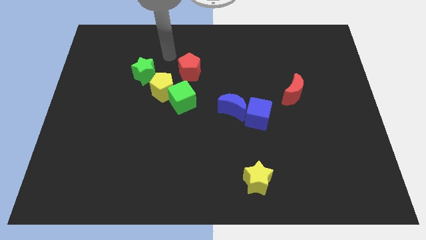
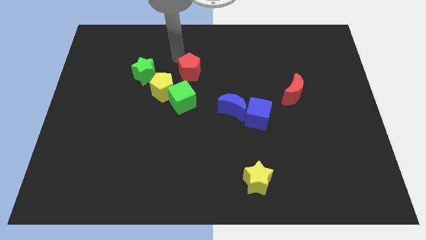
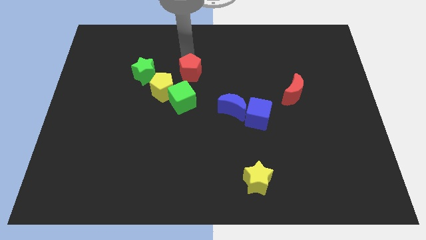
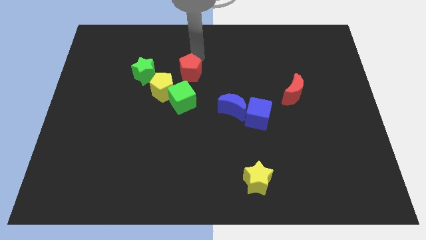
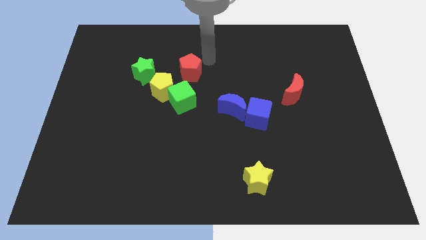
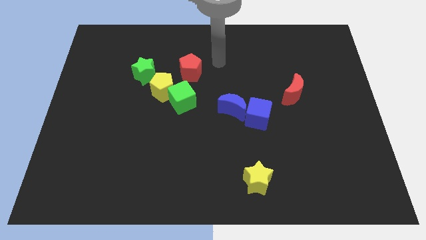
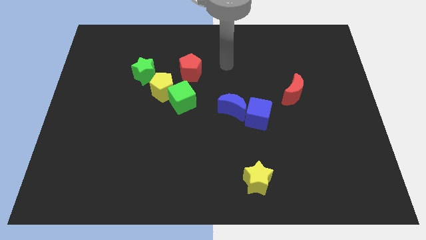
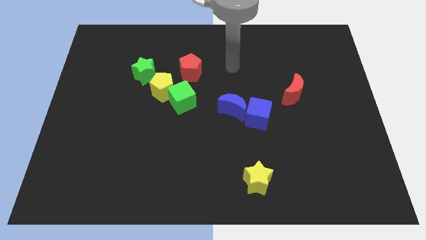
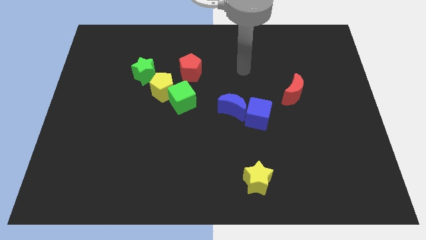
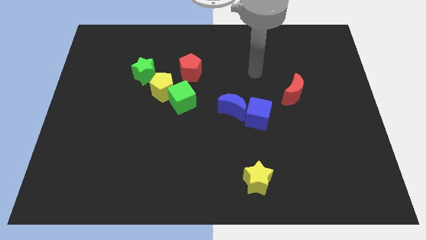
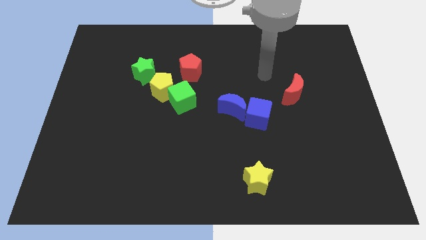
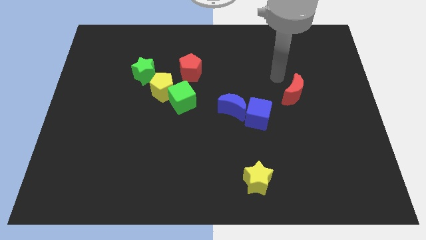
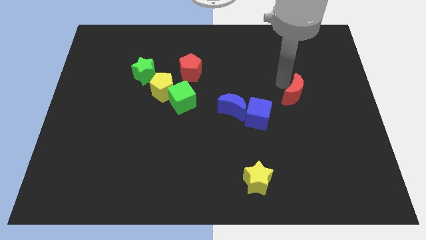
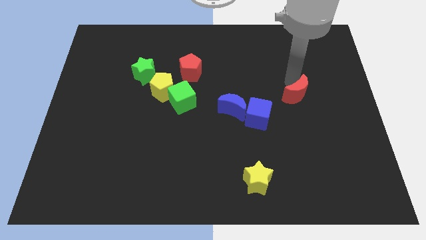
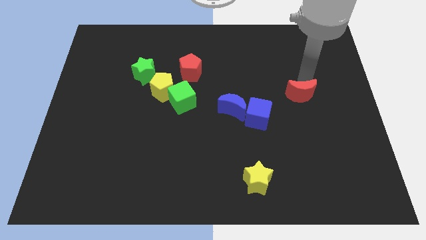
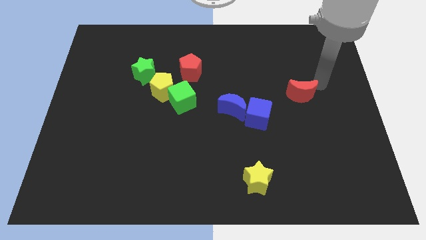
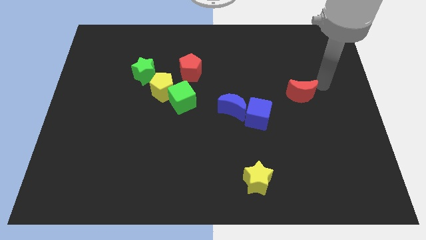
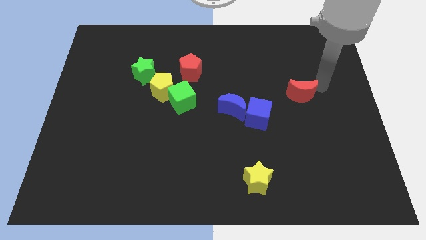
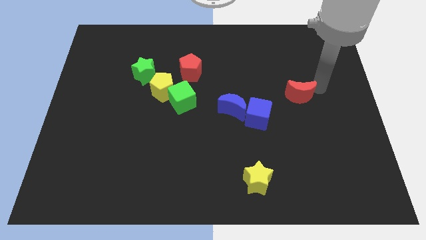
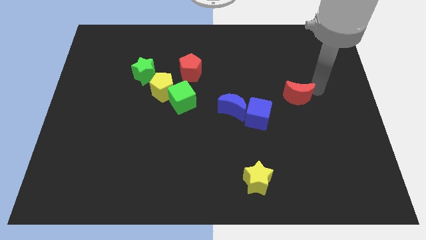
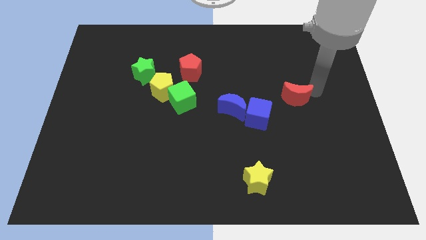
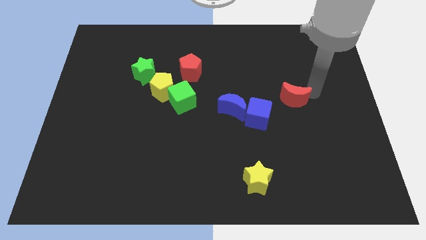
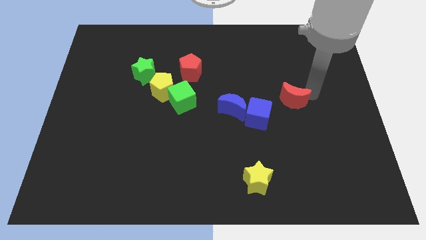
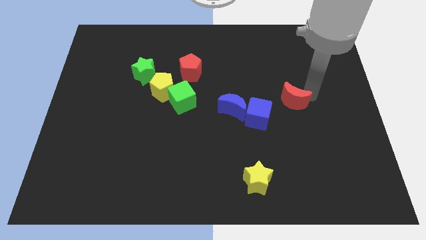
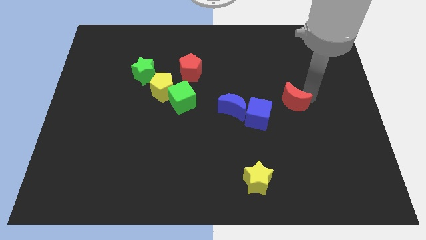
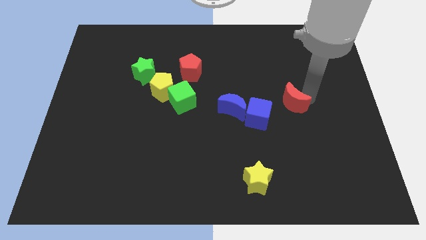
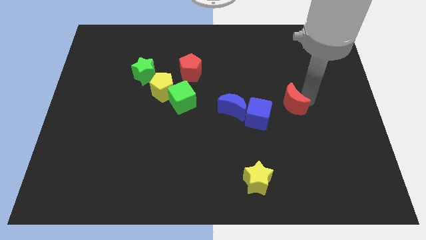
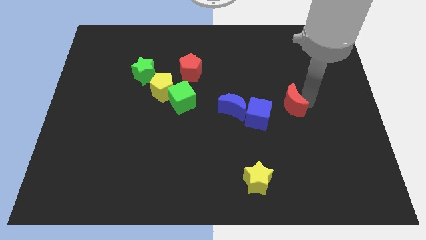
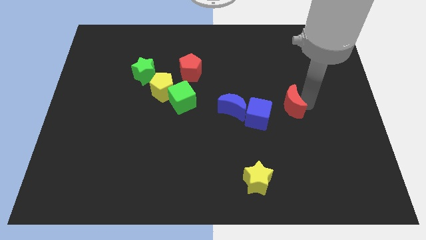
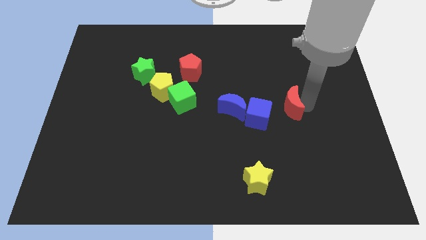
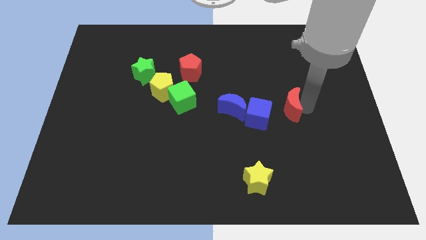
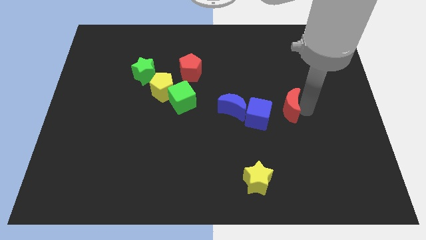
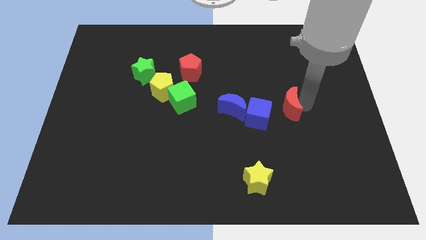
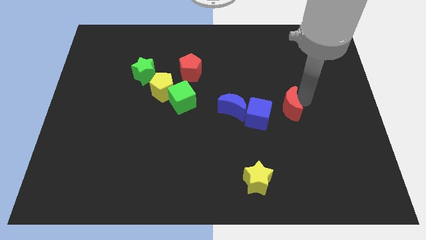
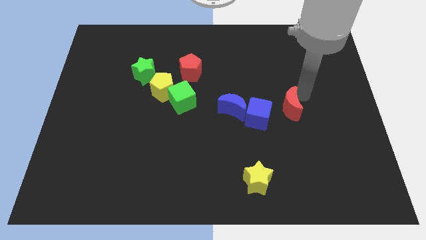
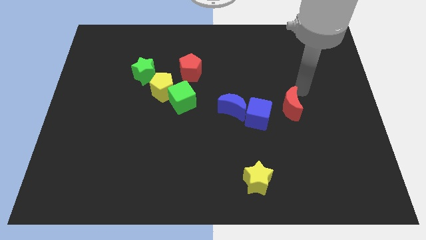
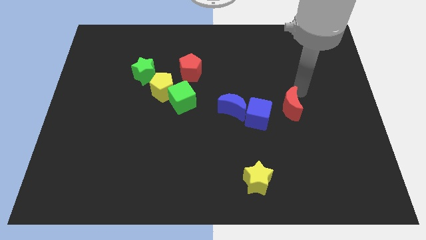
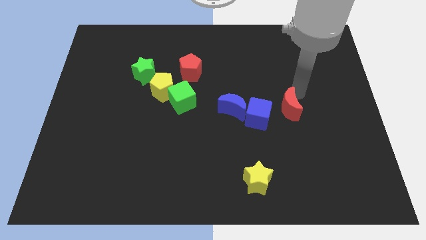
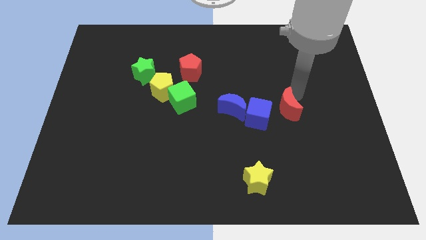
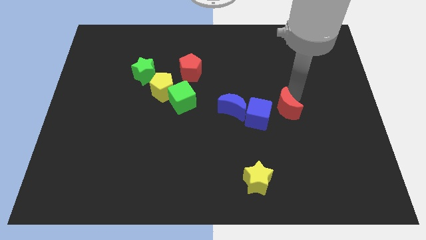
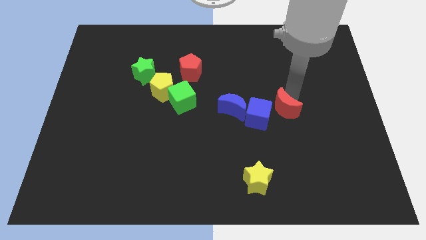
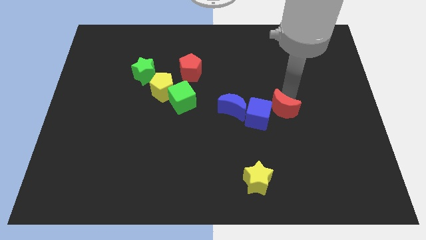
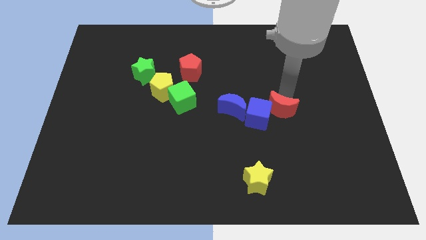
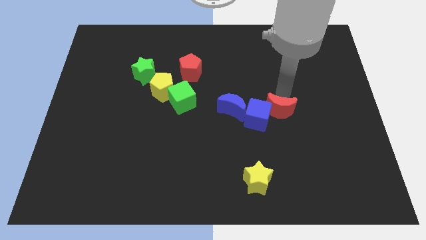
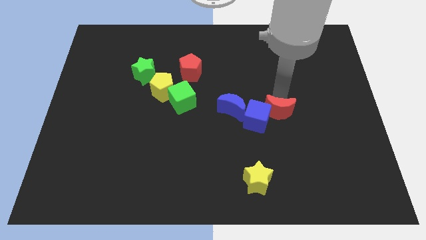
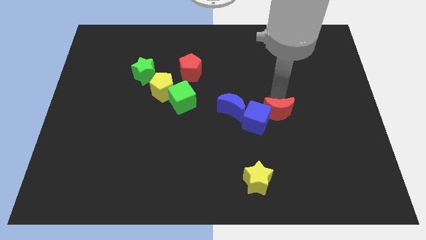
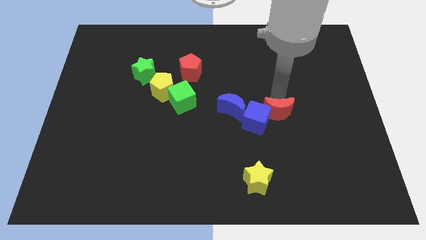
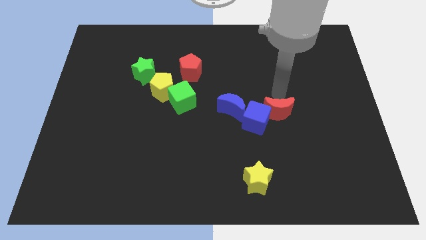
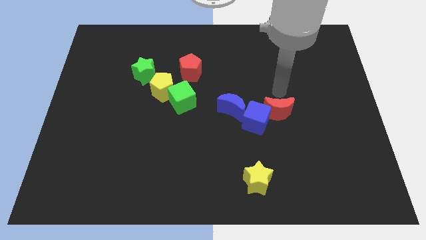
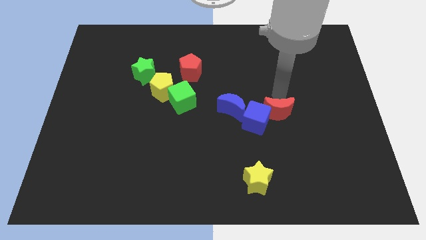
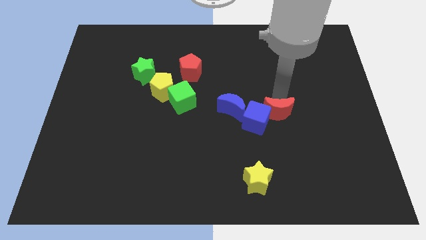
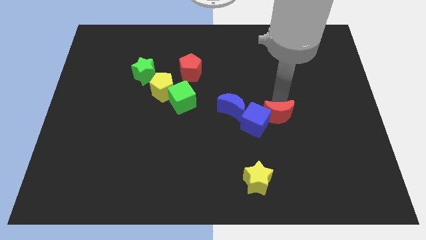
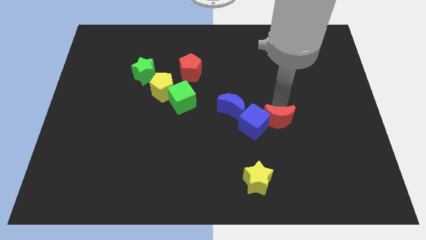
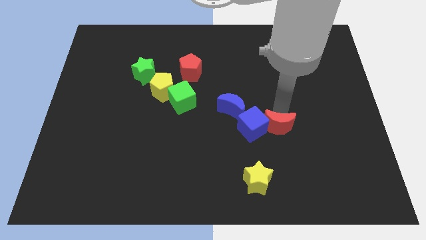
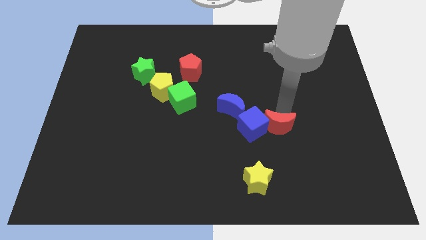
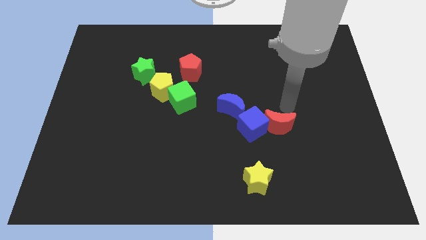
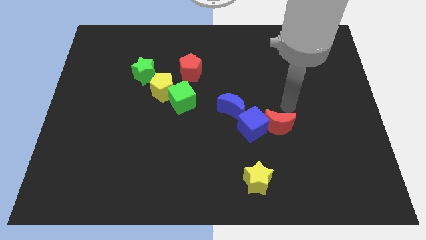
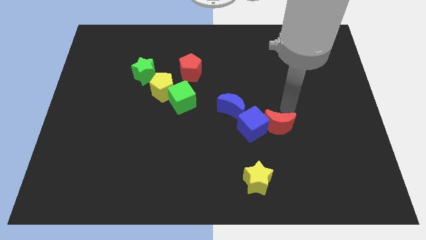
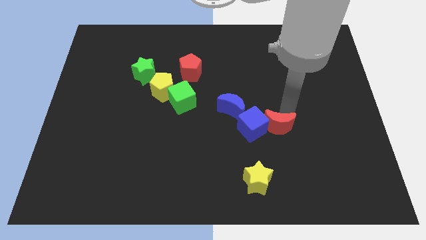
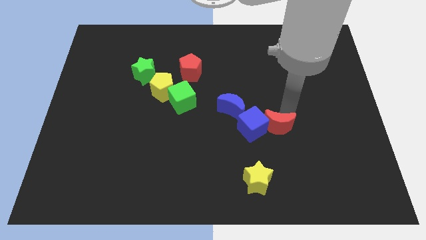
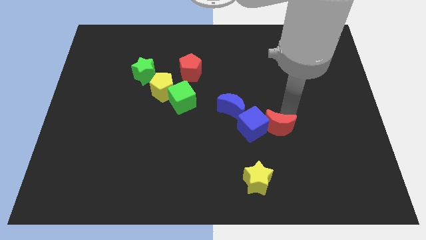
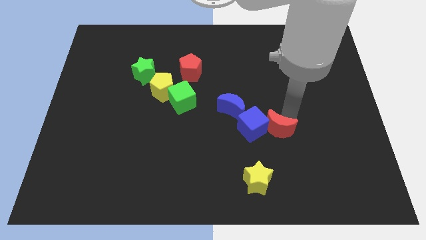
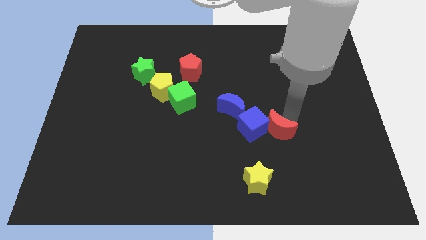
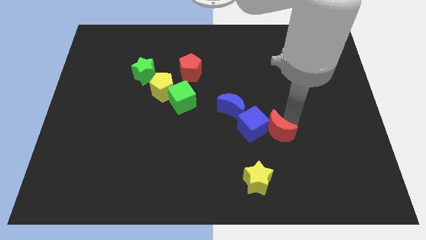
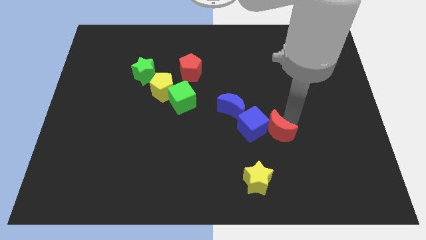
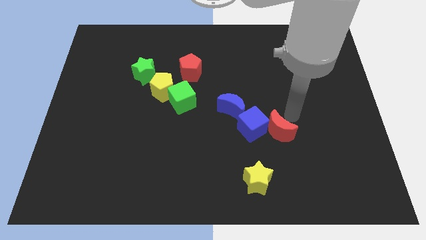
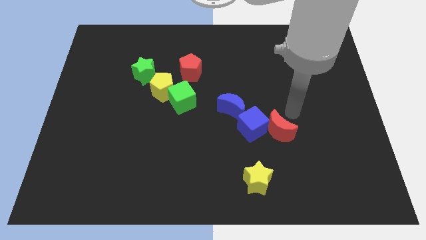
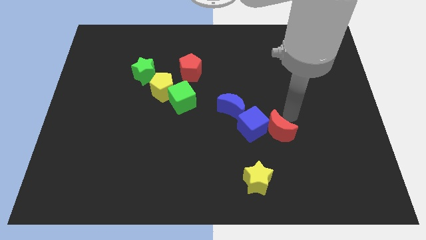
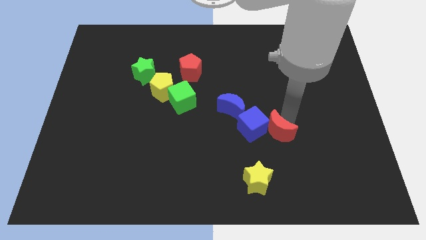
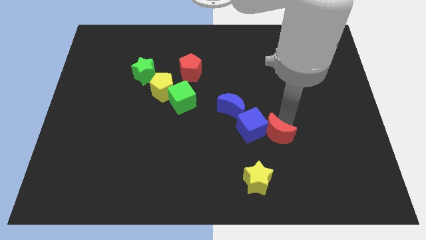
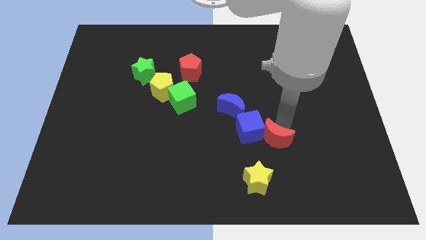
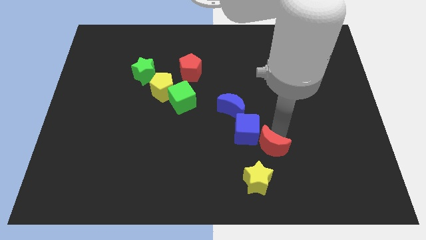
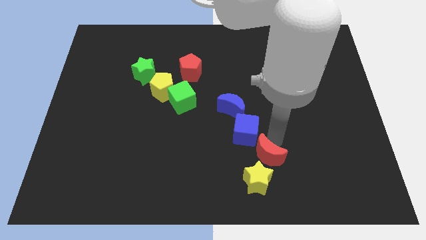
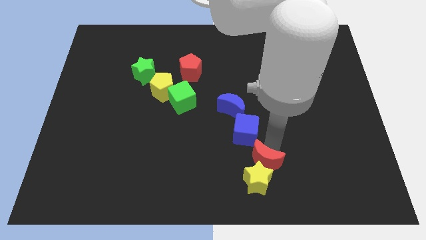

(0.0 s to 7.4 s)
slide the red moon next to the yellow star
